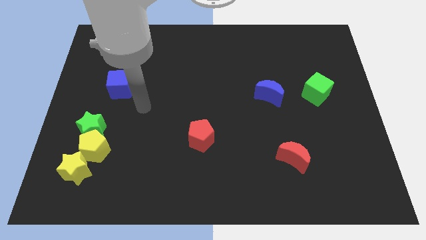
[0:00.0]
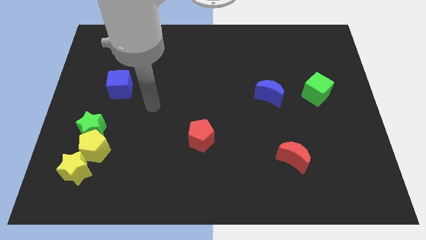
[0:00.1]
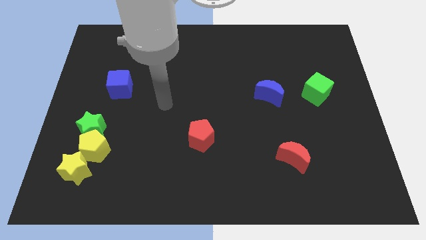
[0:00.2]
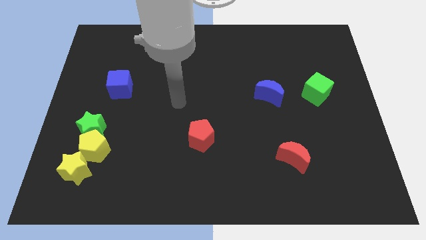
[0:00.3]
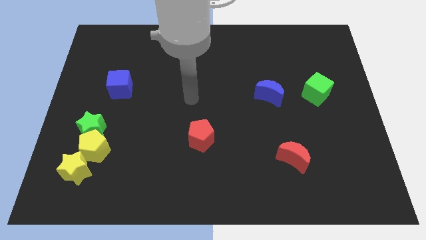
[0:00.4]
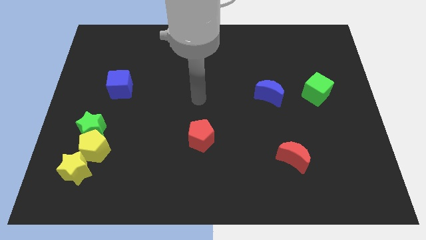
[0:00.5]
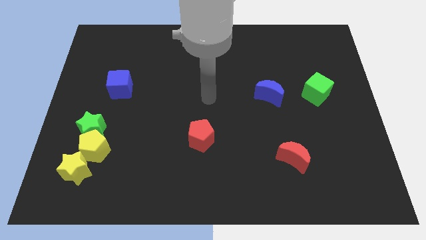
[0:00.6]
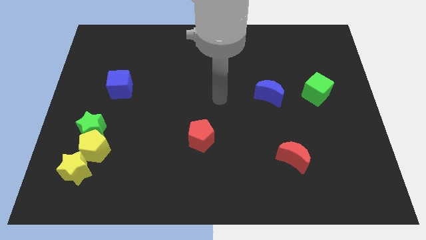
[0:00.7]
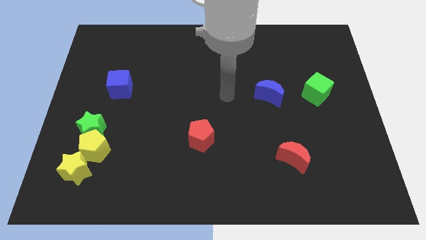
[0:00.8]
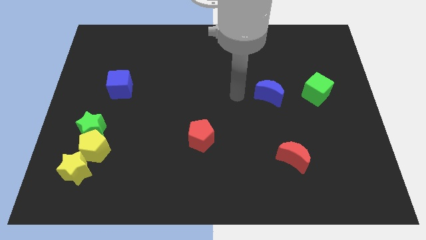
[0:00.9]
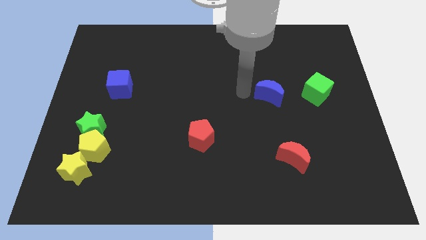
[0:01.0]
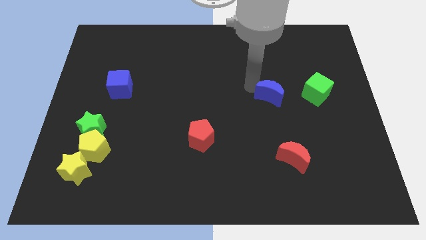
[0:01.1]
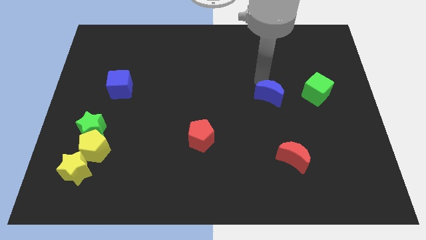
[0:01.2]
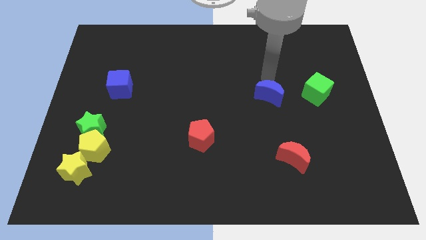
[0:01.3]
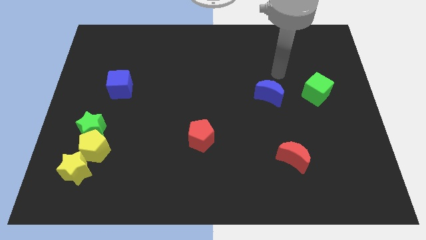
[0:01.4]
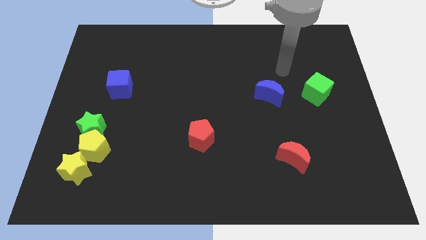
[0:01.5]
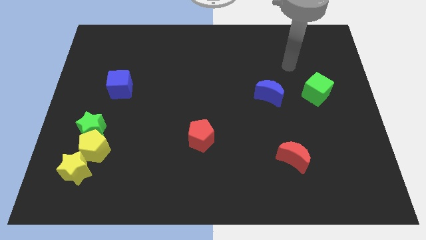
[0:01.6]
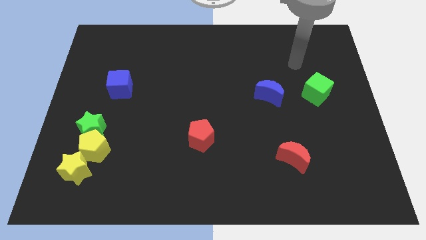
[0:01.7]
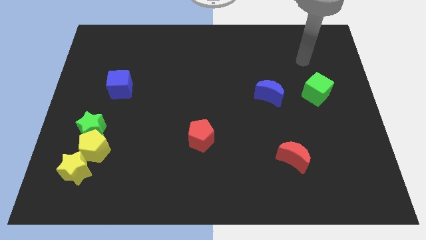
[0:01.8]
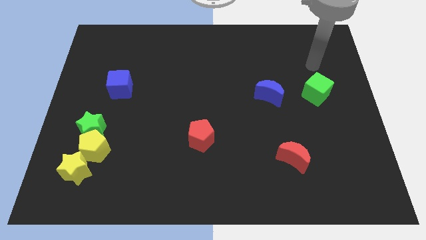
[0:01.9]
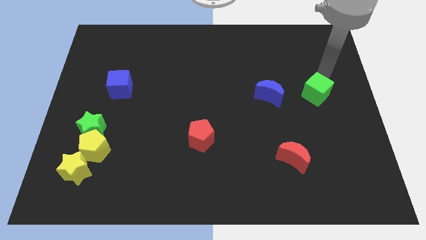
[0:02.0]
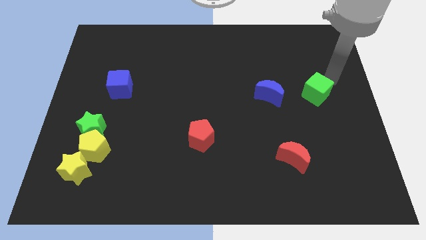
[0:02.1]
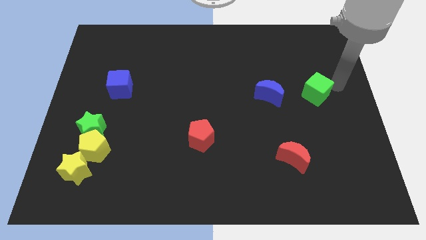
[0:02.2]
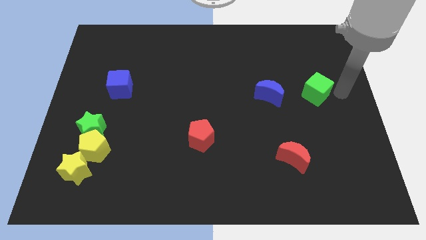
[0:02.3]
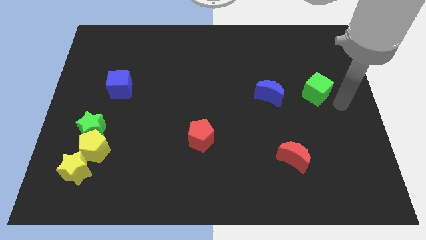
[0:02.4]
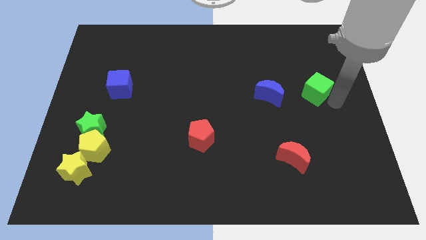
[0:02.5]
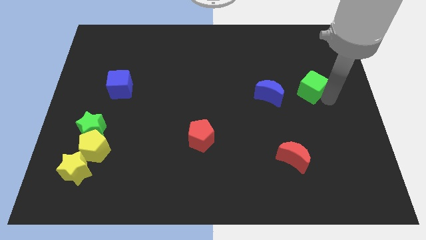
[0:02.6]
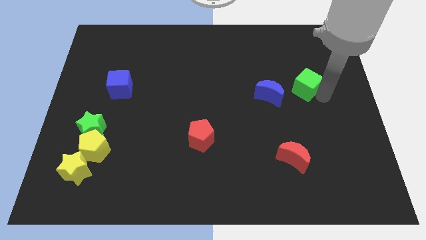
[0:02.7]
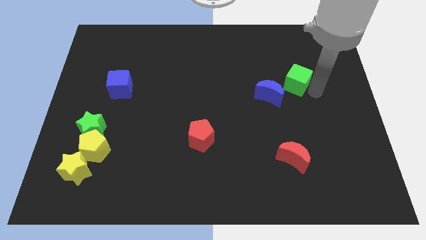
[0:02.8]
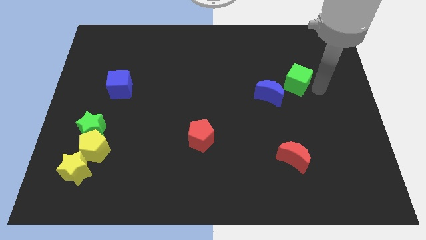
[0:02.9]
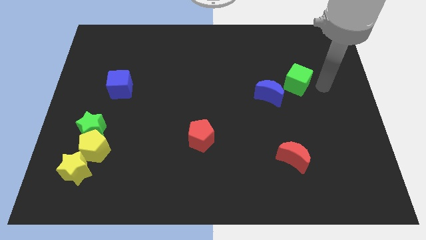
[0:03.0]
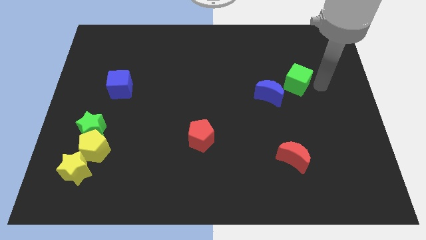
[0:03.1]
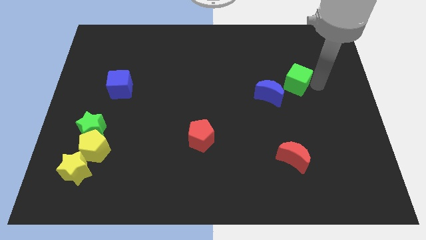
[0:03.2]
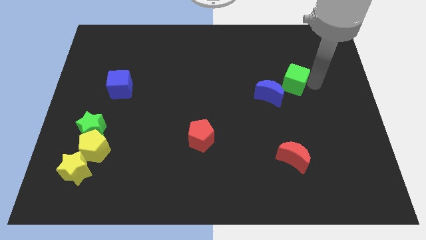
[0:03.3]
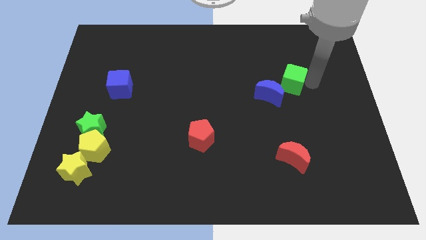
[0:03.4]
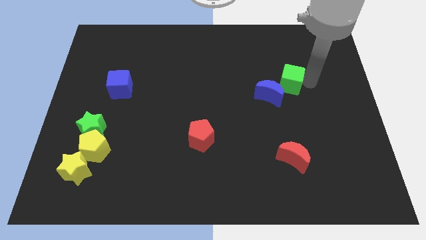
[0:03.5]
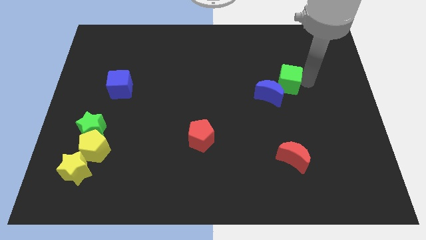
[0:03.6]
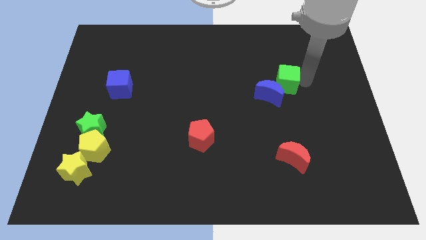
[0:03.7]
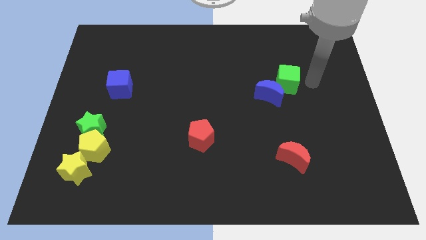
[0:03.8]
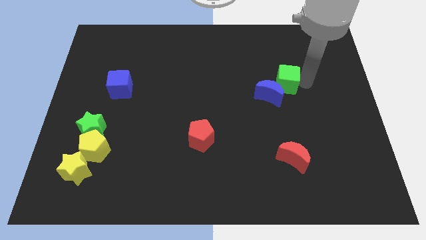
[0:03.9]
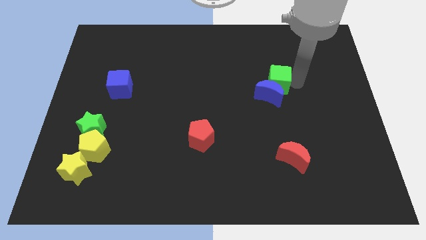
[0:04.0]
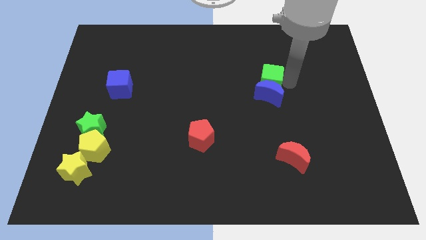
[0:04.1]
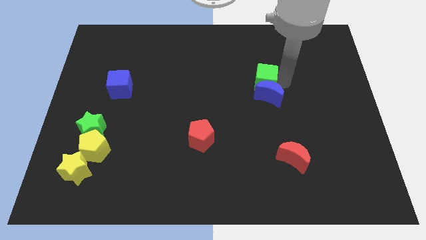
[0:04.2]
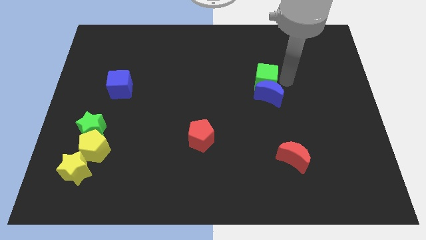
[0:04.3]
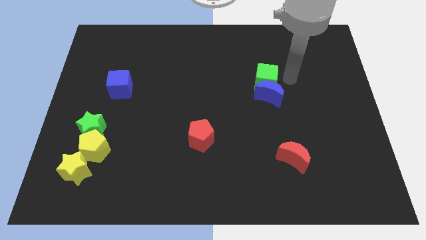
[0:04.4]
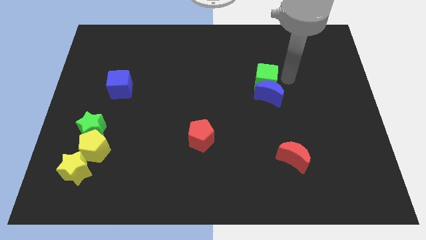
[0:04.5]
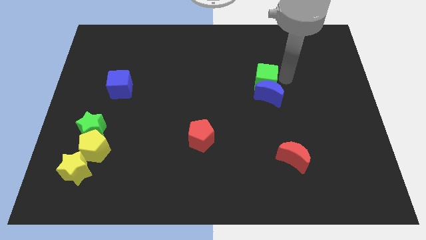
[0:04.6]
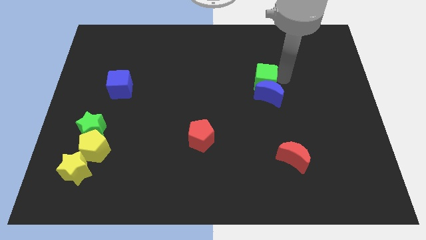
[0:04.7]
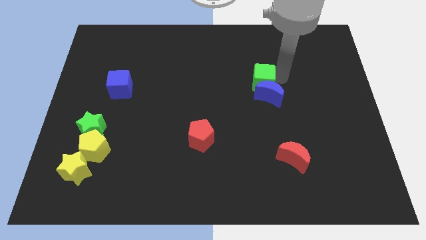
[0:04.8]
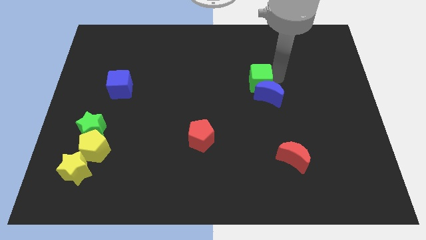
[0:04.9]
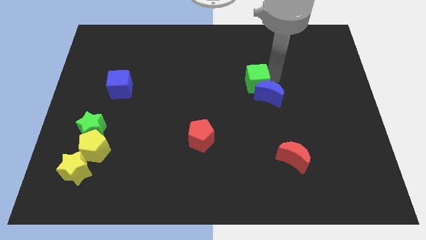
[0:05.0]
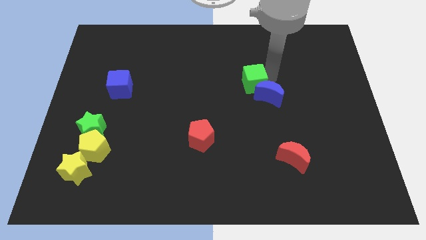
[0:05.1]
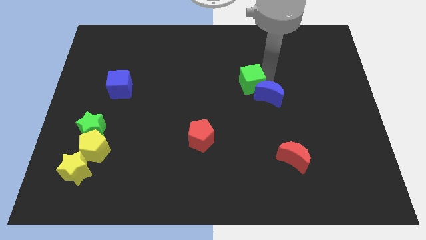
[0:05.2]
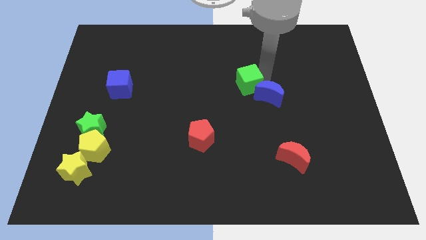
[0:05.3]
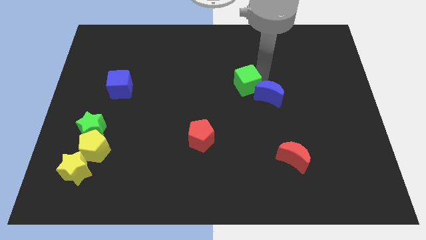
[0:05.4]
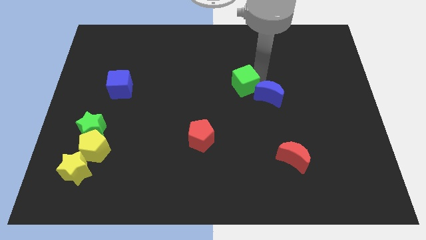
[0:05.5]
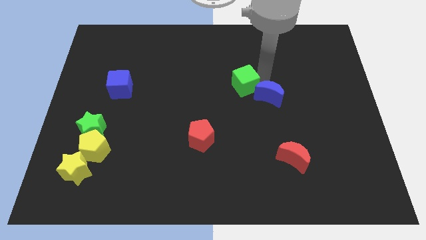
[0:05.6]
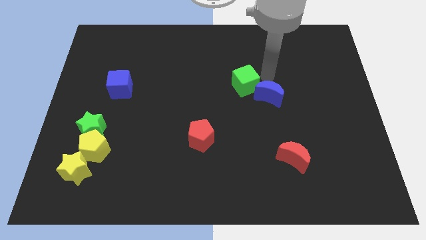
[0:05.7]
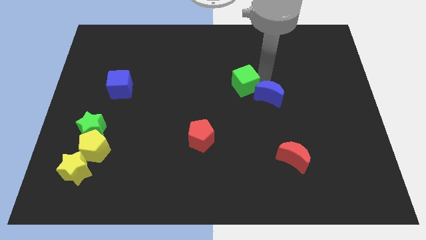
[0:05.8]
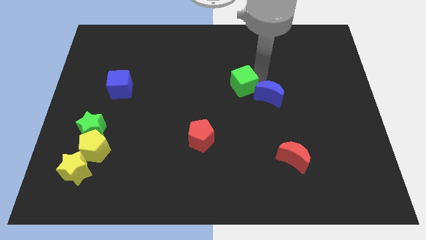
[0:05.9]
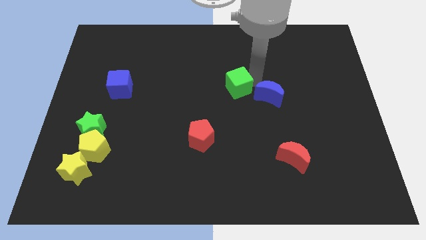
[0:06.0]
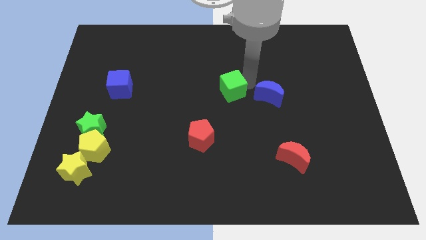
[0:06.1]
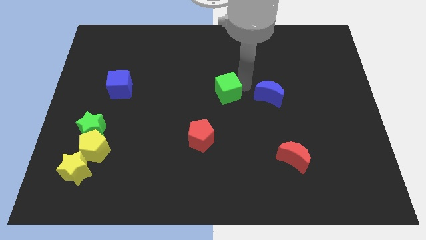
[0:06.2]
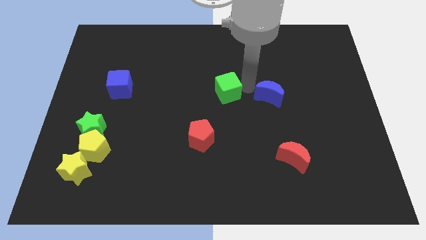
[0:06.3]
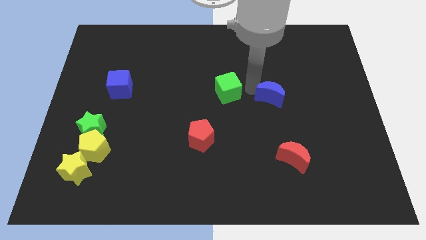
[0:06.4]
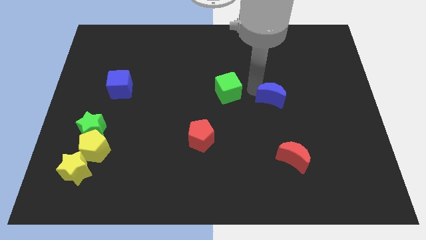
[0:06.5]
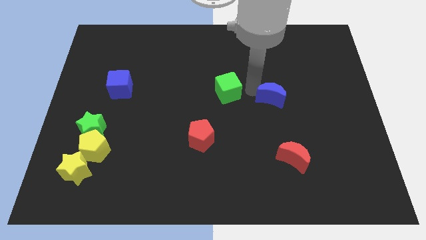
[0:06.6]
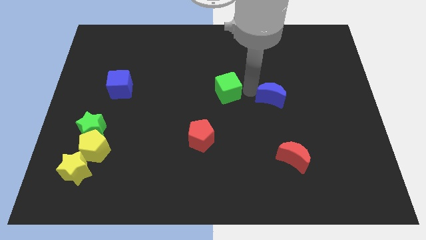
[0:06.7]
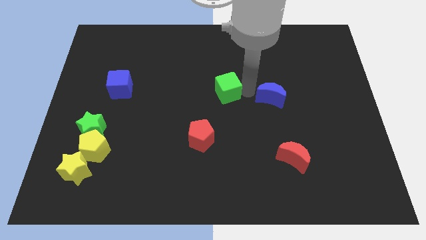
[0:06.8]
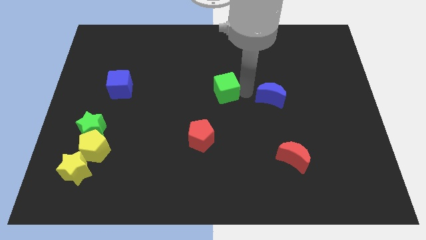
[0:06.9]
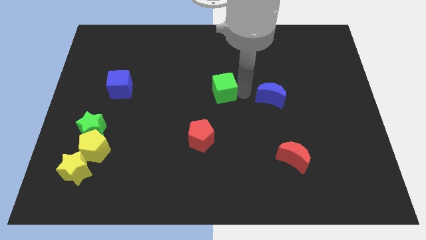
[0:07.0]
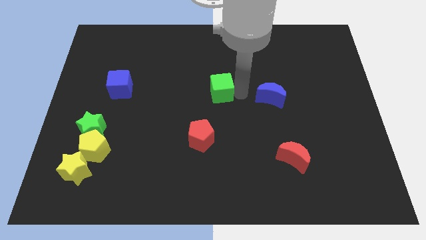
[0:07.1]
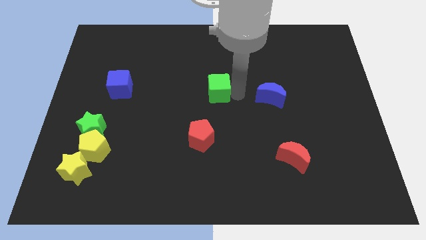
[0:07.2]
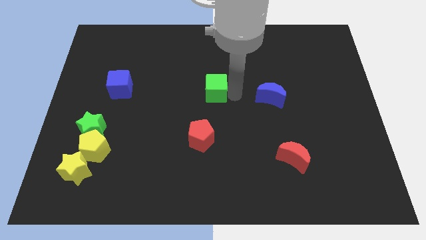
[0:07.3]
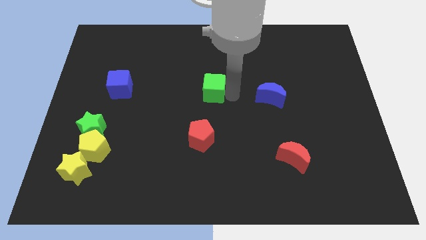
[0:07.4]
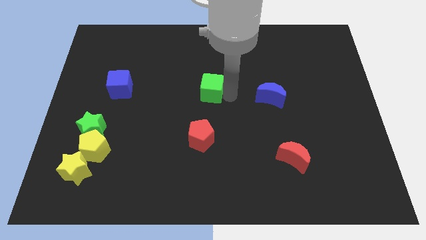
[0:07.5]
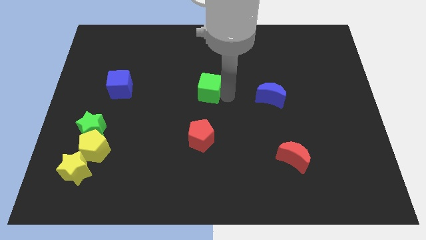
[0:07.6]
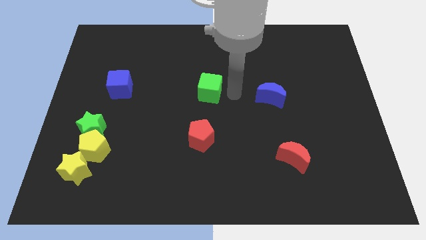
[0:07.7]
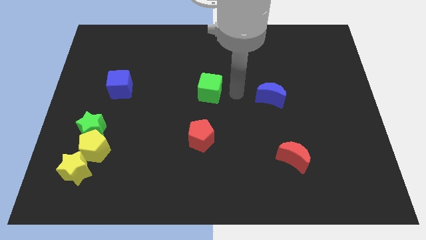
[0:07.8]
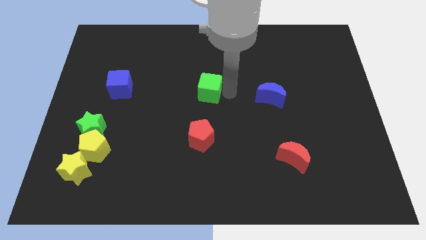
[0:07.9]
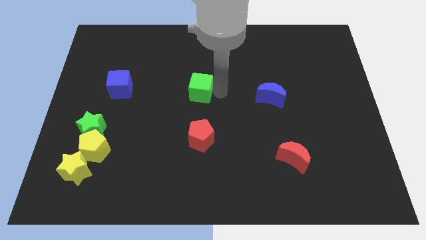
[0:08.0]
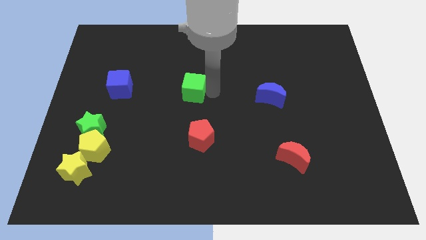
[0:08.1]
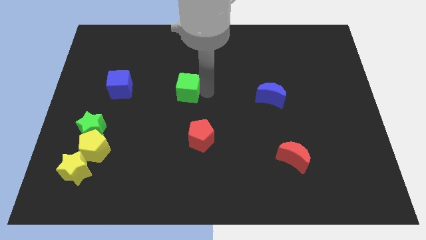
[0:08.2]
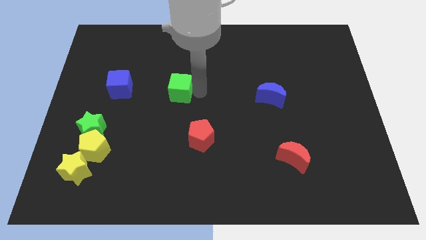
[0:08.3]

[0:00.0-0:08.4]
put the green cube to the right of the blue cube
